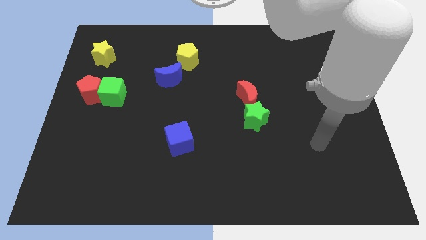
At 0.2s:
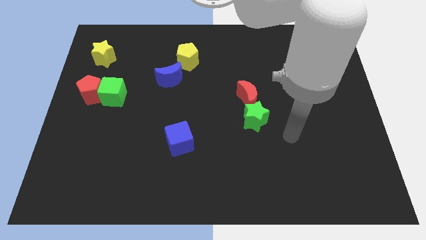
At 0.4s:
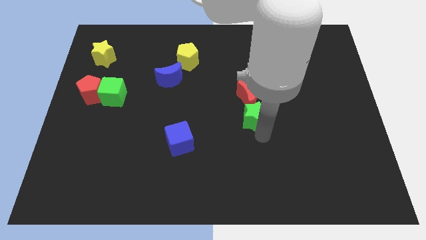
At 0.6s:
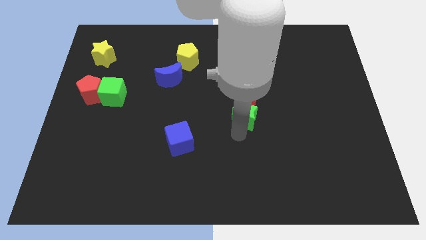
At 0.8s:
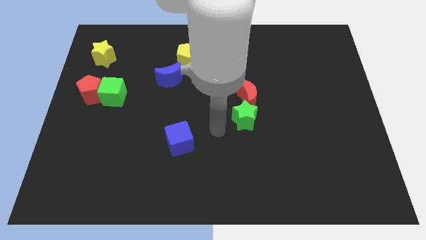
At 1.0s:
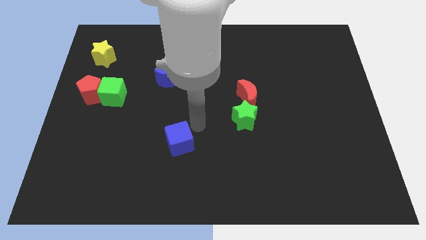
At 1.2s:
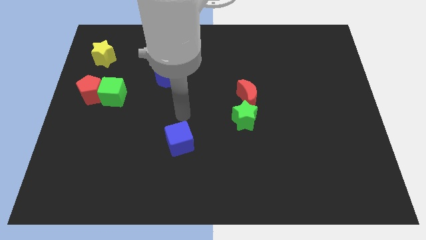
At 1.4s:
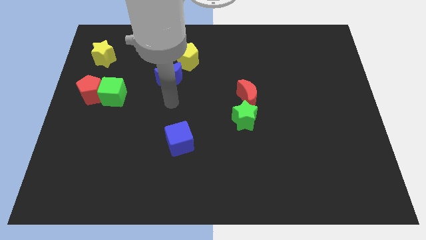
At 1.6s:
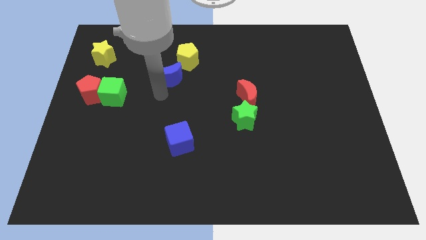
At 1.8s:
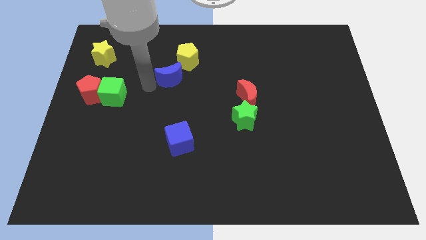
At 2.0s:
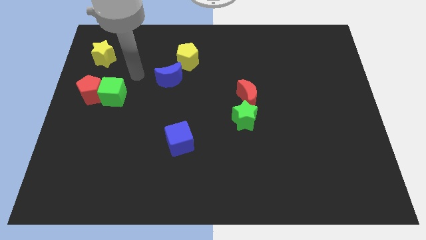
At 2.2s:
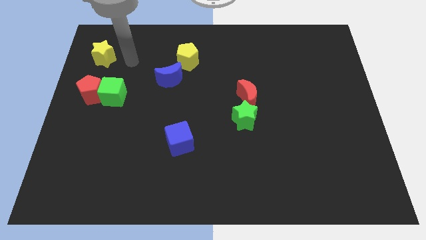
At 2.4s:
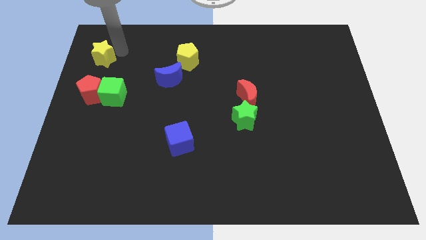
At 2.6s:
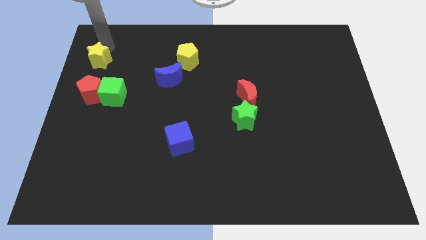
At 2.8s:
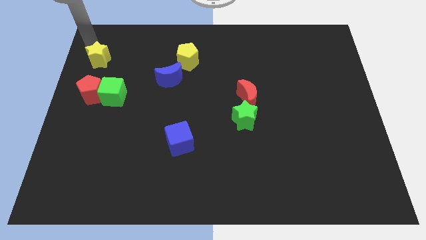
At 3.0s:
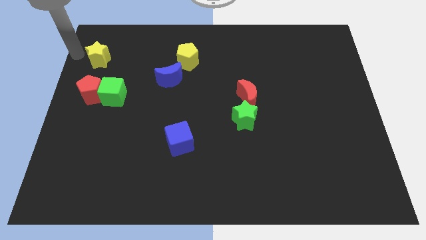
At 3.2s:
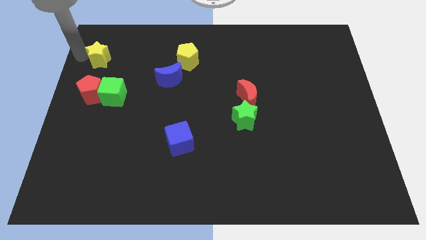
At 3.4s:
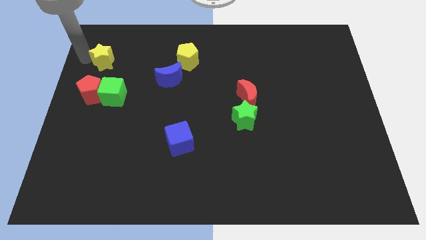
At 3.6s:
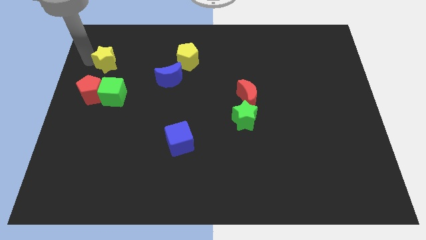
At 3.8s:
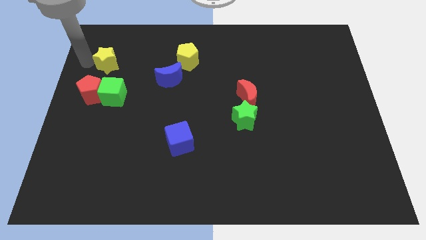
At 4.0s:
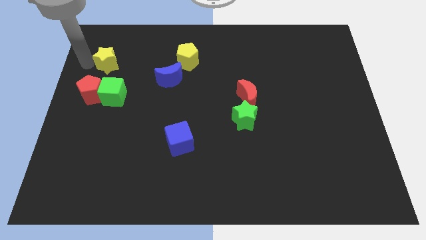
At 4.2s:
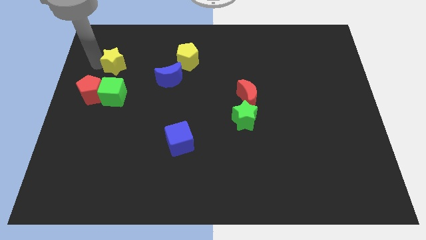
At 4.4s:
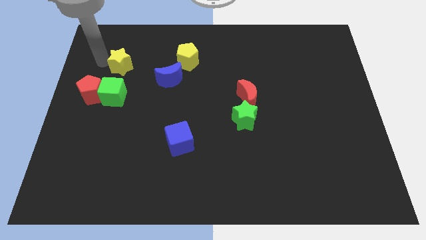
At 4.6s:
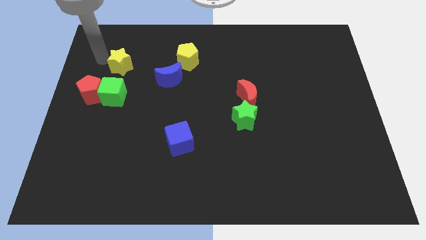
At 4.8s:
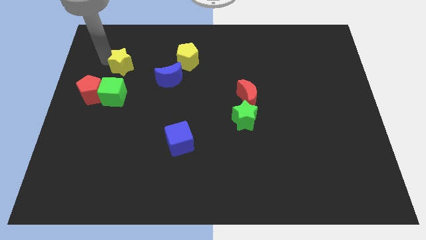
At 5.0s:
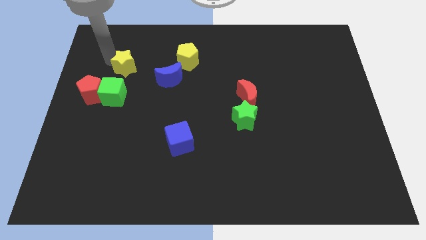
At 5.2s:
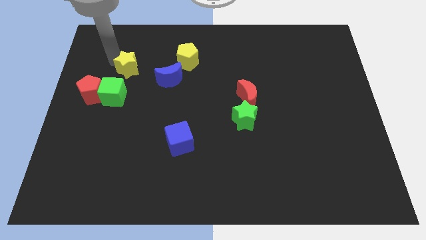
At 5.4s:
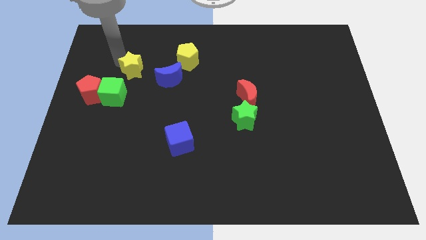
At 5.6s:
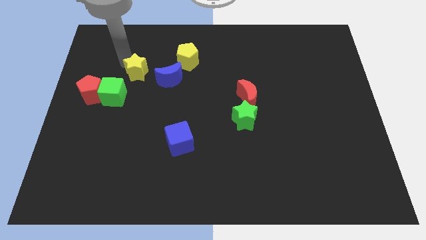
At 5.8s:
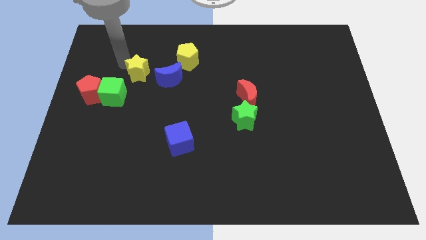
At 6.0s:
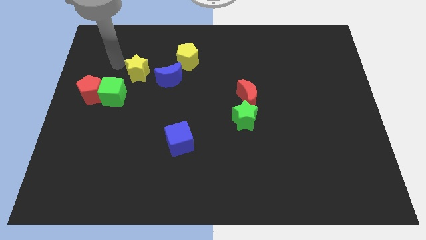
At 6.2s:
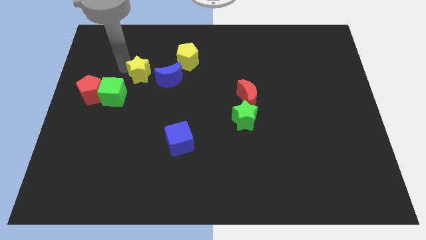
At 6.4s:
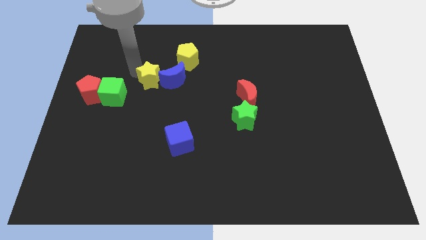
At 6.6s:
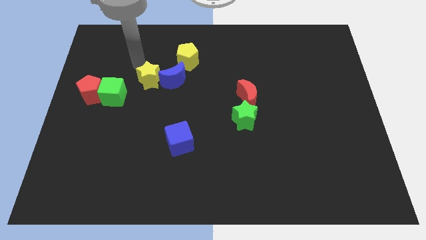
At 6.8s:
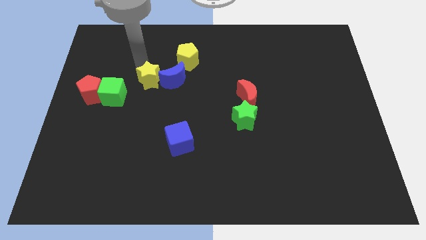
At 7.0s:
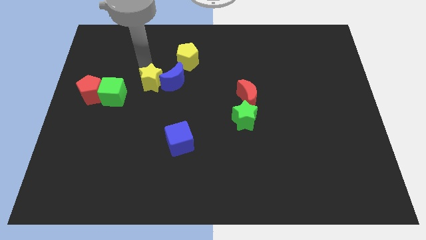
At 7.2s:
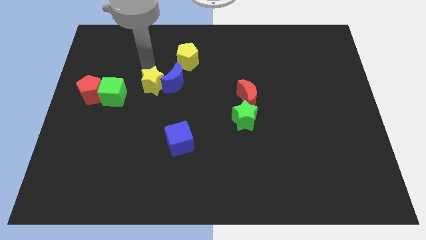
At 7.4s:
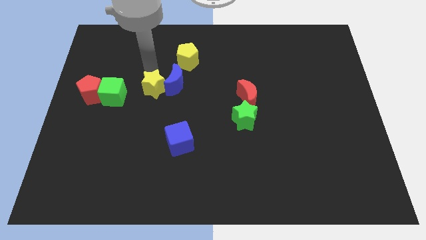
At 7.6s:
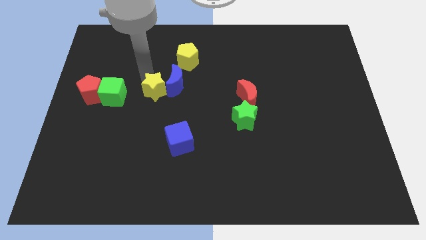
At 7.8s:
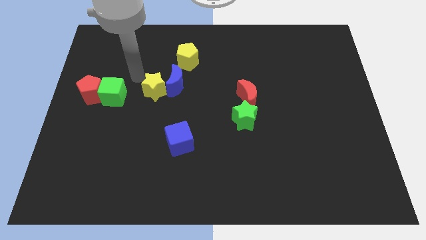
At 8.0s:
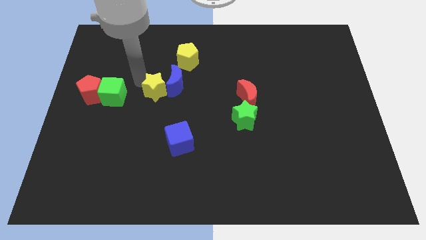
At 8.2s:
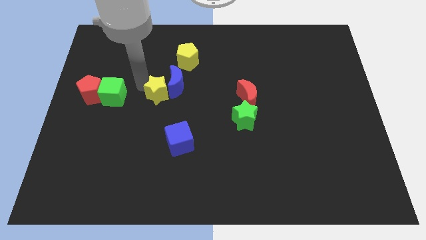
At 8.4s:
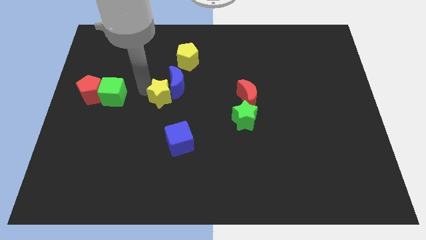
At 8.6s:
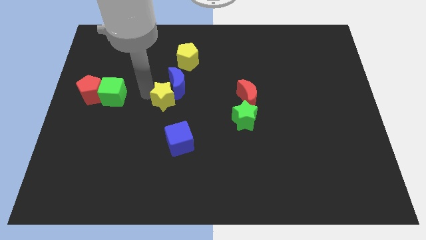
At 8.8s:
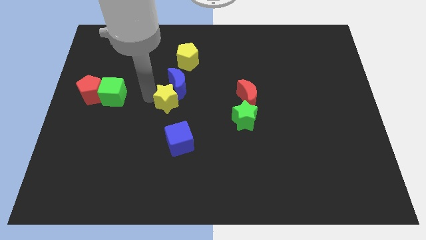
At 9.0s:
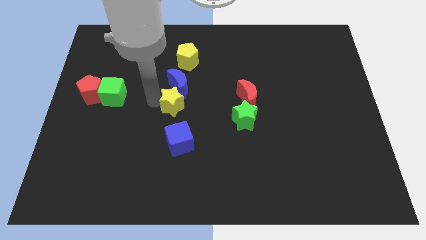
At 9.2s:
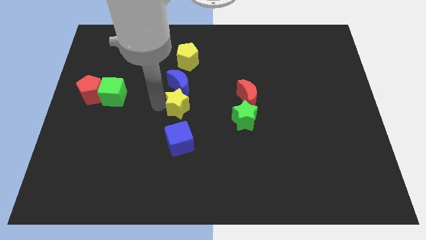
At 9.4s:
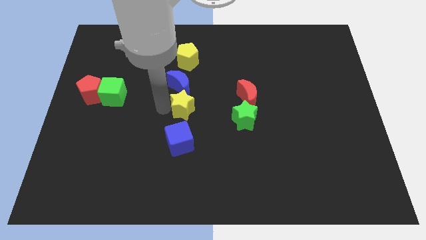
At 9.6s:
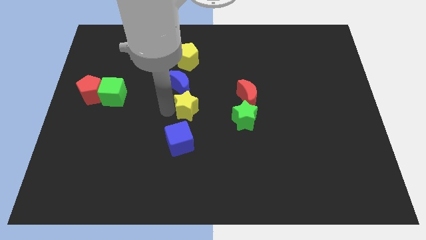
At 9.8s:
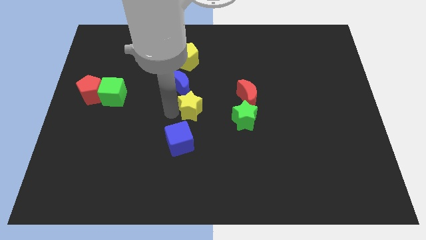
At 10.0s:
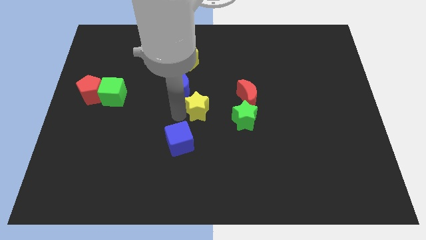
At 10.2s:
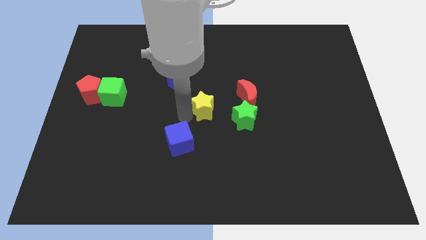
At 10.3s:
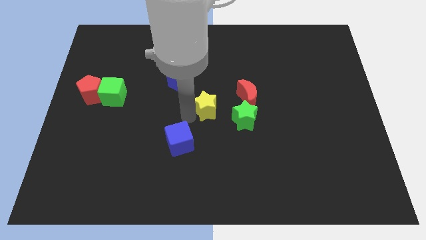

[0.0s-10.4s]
move the yellow star diagonally down and to the left of the red moon

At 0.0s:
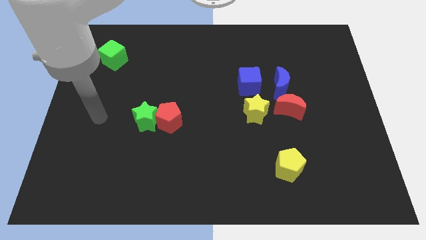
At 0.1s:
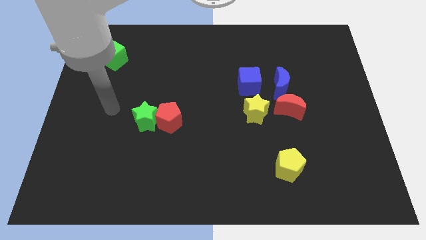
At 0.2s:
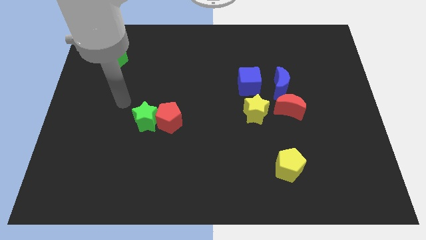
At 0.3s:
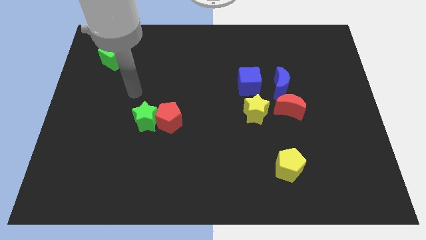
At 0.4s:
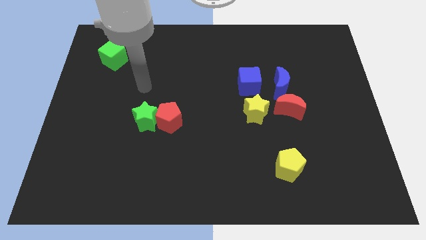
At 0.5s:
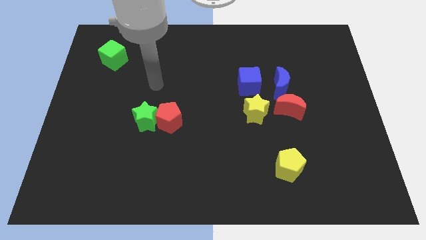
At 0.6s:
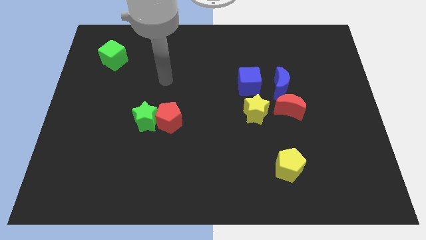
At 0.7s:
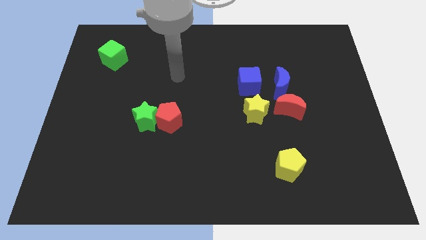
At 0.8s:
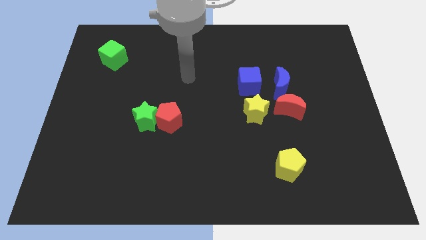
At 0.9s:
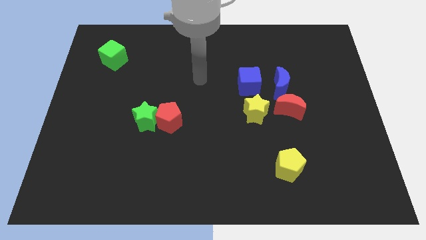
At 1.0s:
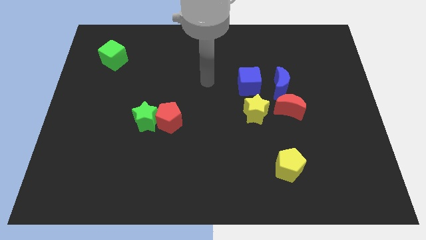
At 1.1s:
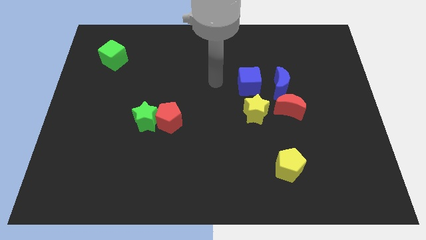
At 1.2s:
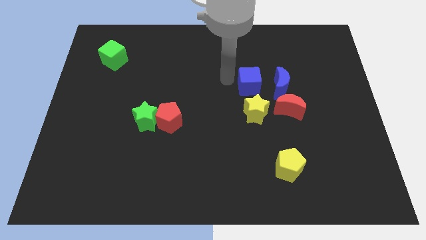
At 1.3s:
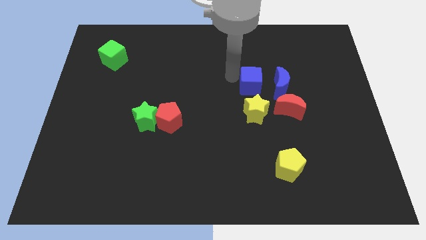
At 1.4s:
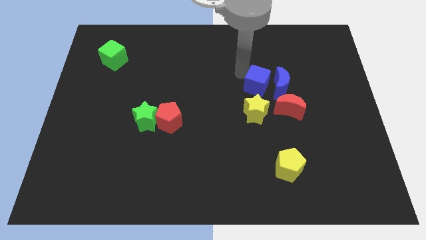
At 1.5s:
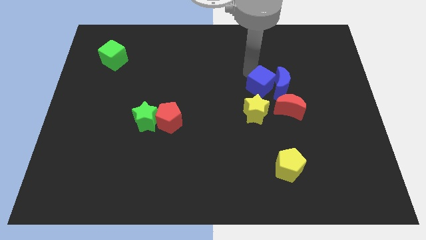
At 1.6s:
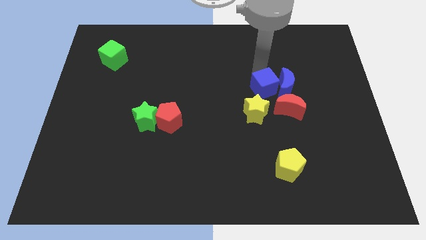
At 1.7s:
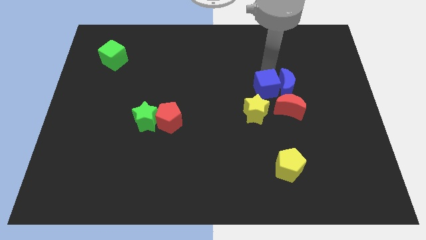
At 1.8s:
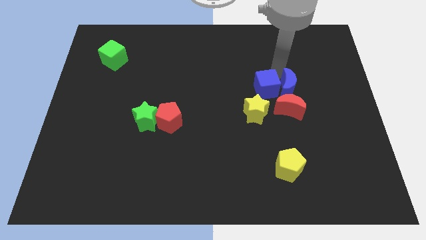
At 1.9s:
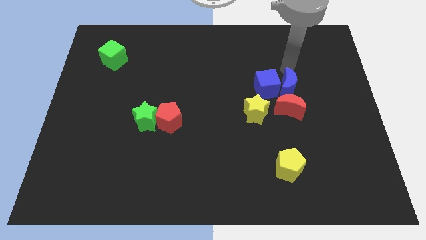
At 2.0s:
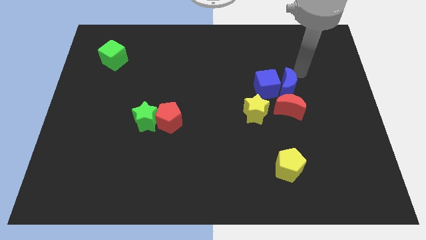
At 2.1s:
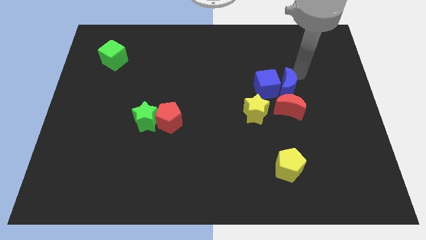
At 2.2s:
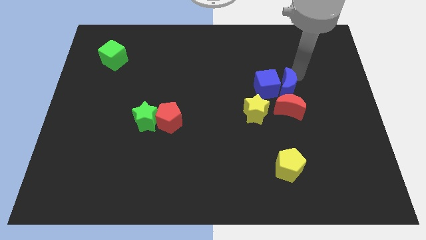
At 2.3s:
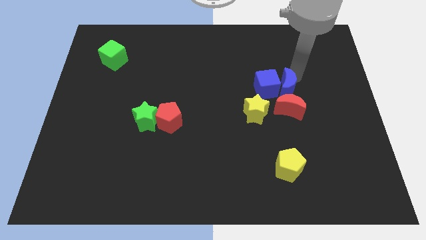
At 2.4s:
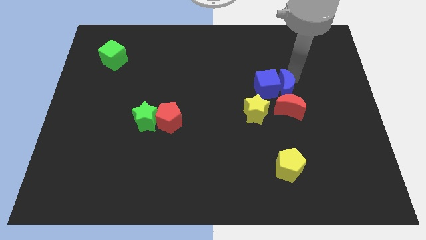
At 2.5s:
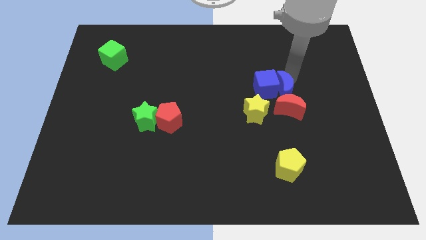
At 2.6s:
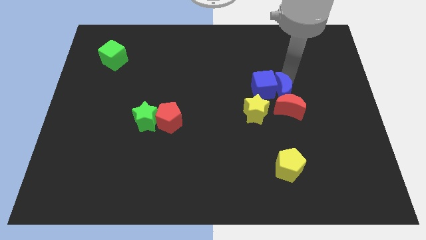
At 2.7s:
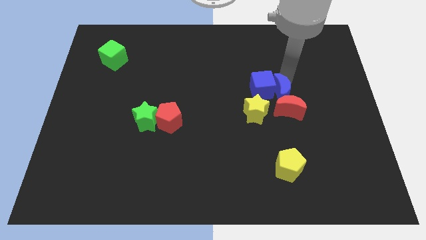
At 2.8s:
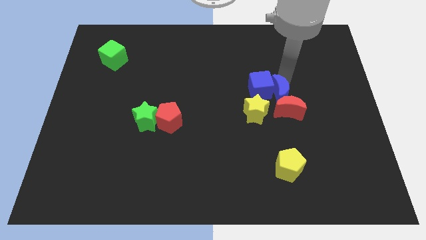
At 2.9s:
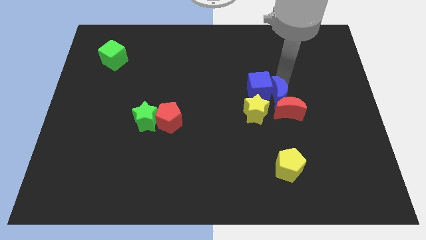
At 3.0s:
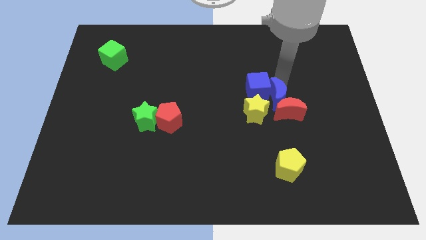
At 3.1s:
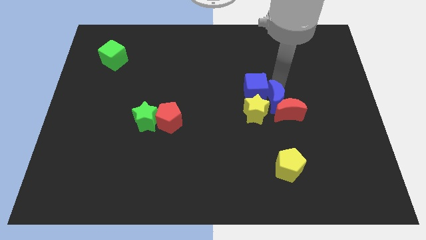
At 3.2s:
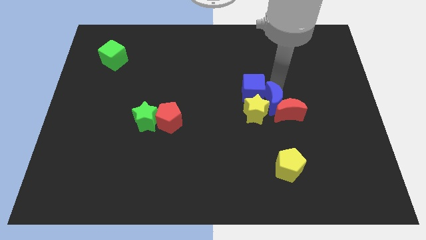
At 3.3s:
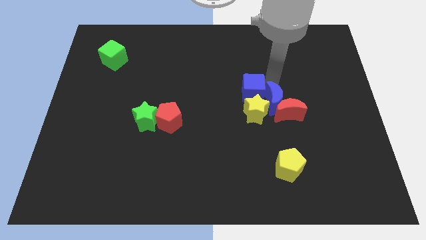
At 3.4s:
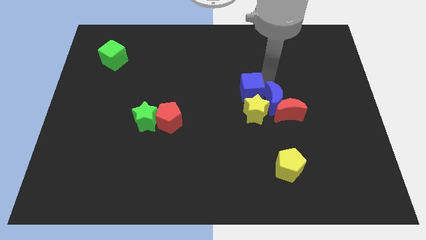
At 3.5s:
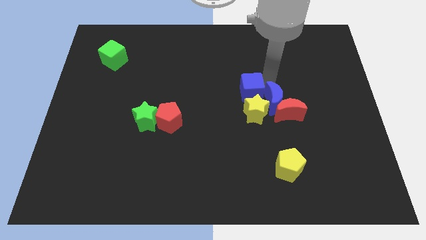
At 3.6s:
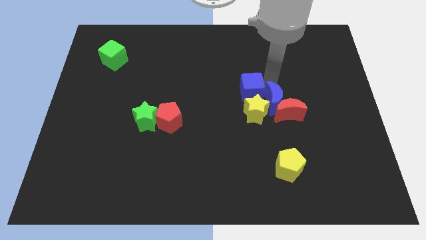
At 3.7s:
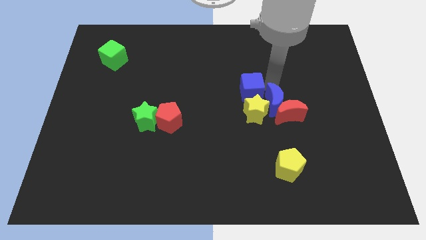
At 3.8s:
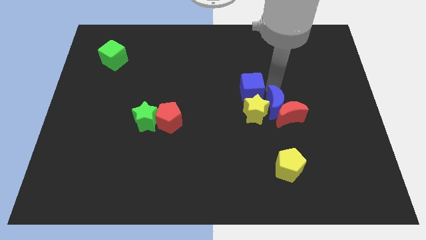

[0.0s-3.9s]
move the blue moon above the yellow pentagon
